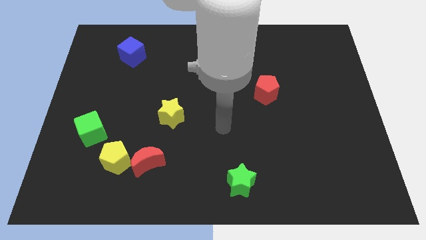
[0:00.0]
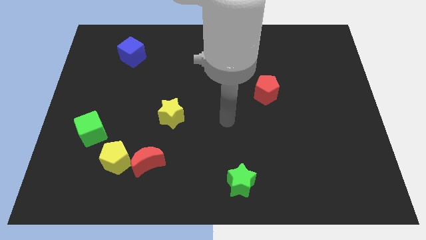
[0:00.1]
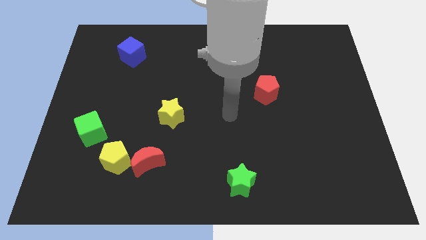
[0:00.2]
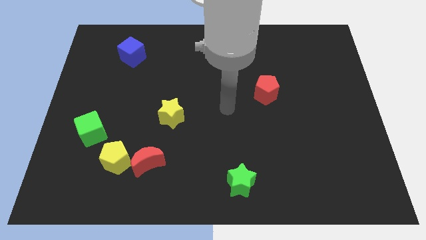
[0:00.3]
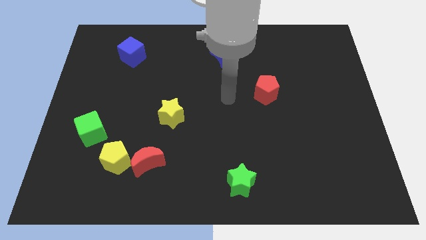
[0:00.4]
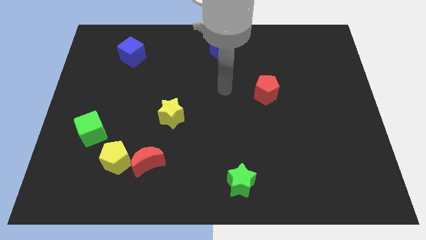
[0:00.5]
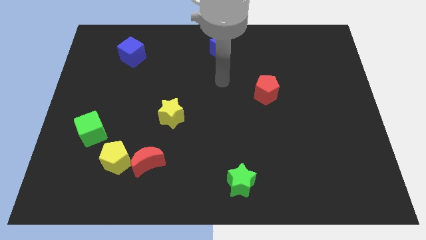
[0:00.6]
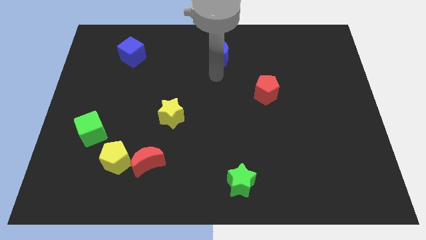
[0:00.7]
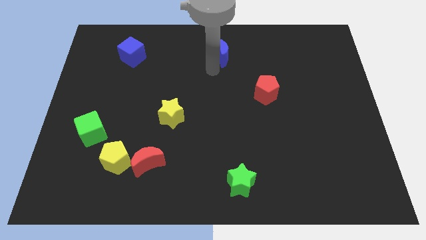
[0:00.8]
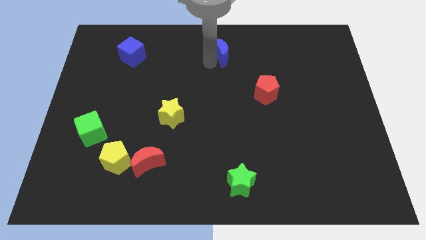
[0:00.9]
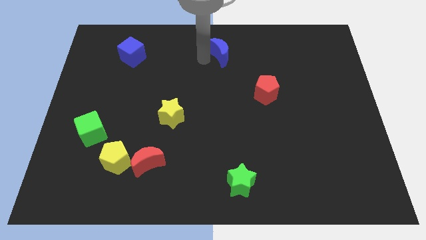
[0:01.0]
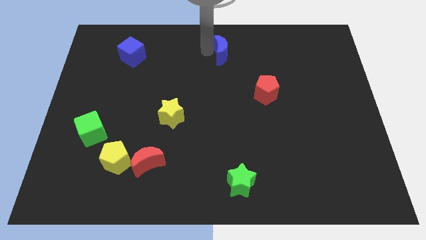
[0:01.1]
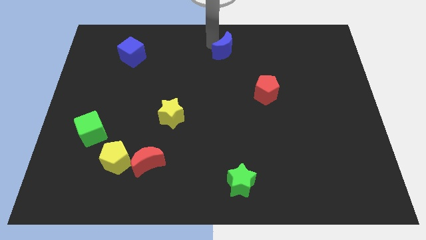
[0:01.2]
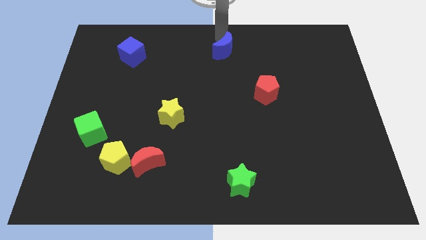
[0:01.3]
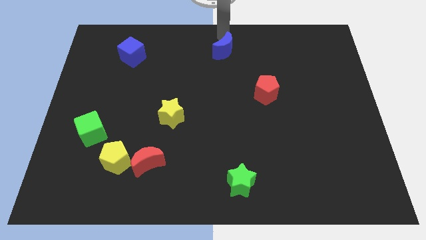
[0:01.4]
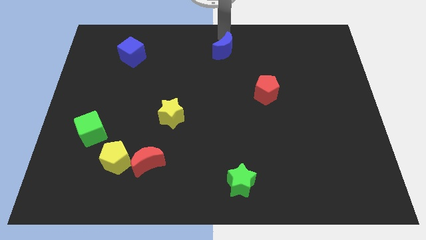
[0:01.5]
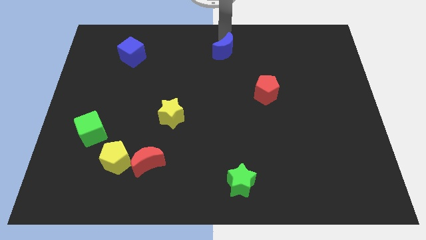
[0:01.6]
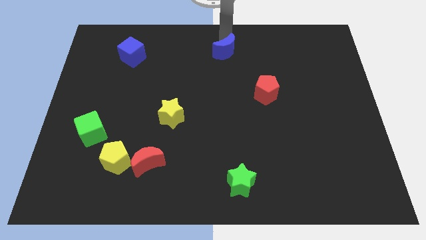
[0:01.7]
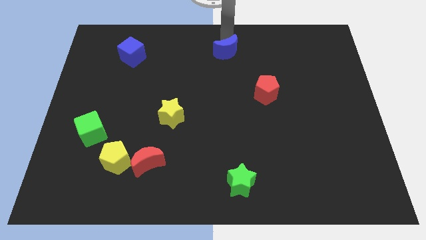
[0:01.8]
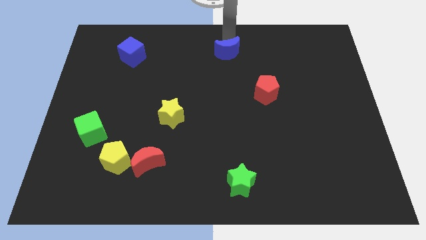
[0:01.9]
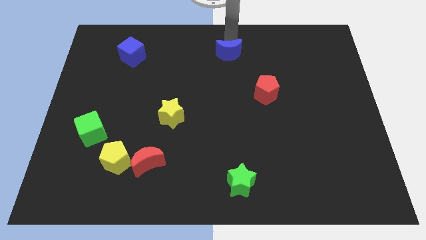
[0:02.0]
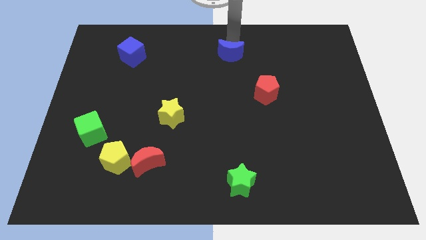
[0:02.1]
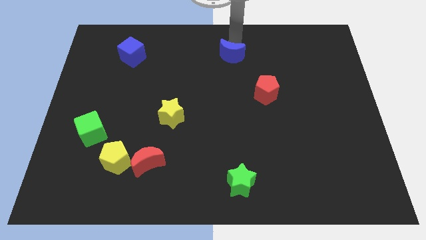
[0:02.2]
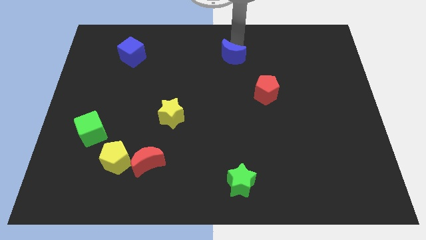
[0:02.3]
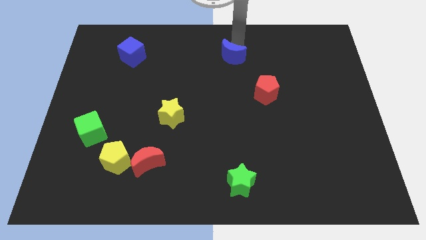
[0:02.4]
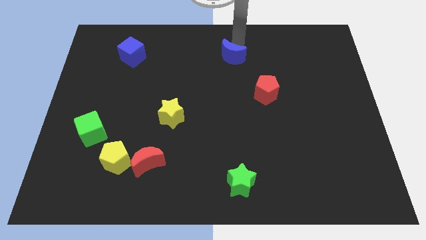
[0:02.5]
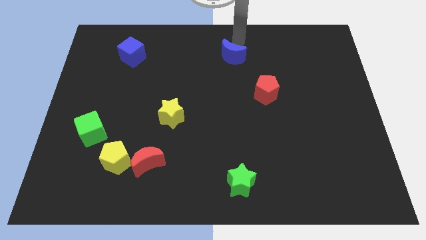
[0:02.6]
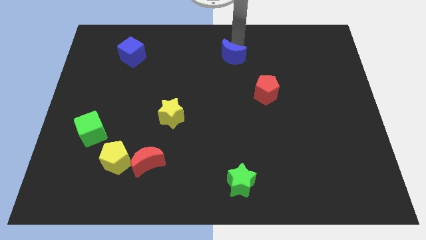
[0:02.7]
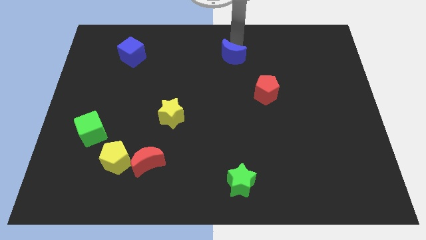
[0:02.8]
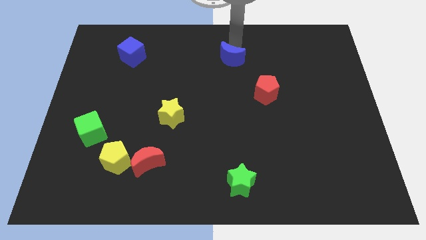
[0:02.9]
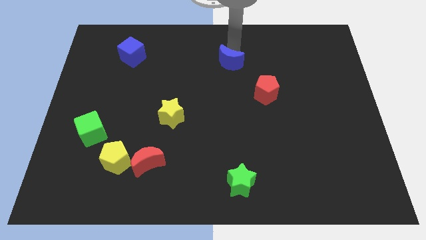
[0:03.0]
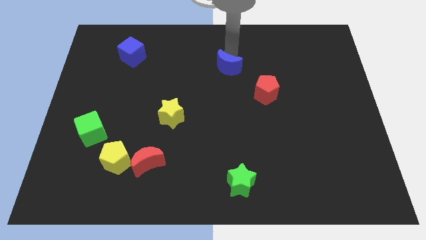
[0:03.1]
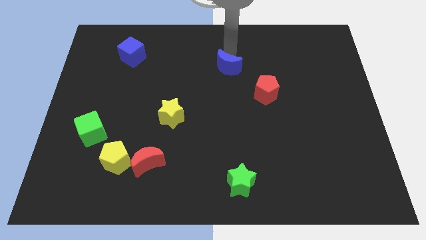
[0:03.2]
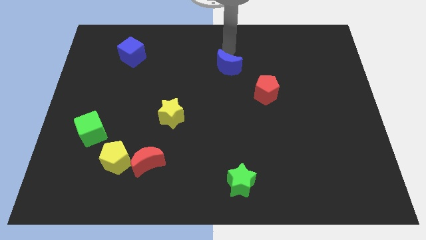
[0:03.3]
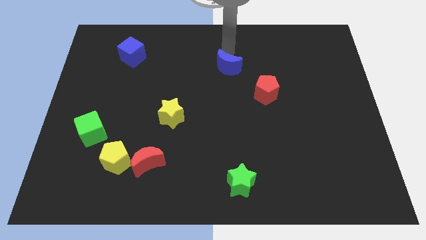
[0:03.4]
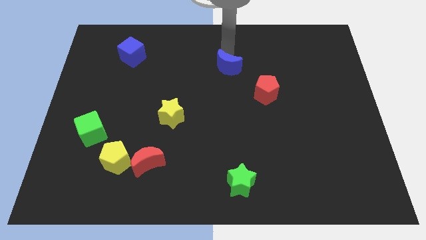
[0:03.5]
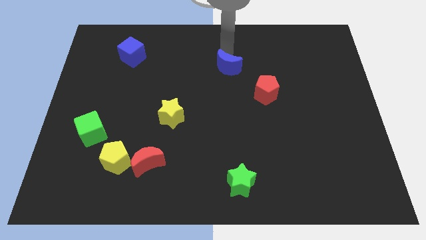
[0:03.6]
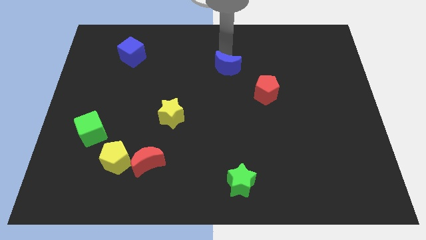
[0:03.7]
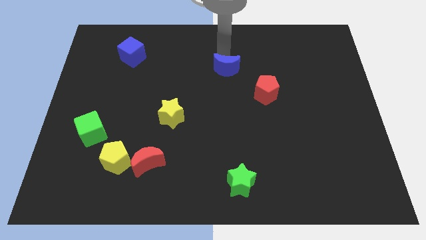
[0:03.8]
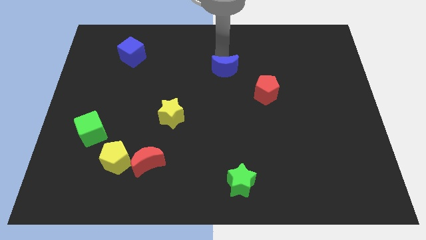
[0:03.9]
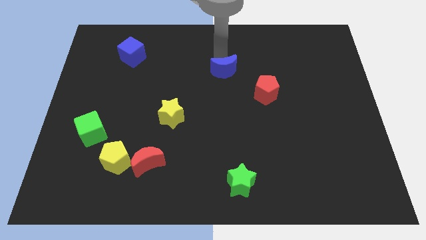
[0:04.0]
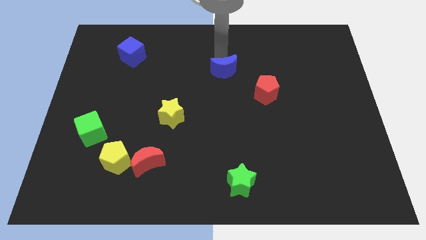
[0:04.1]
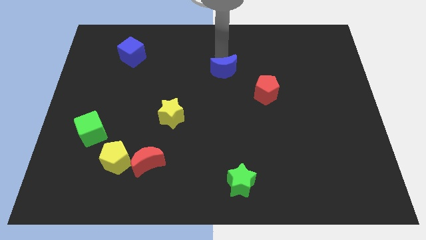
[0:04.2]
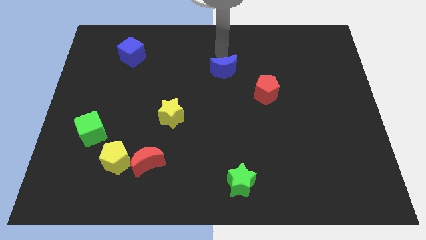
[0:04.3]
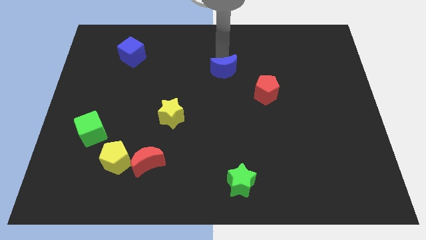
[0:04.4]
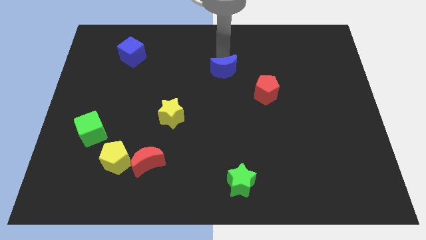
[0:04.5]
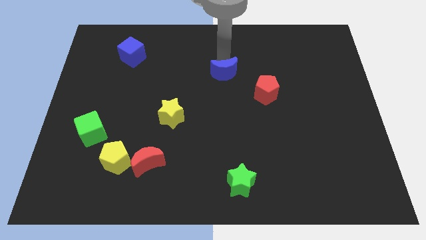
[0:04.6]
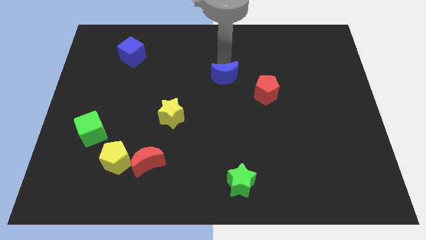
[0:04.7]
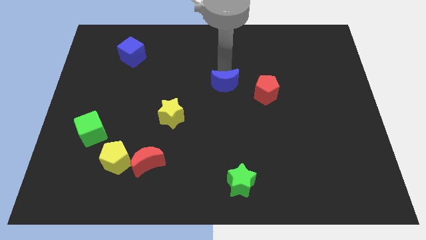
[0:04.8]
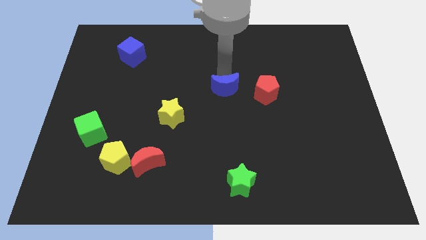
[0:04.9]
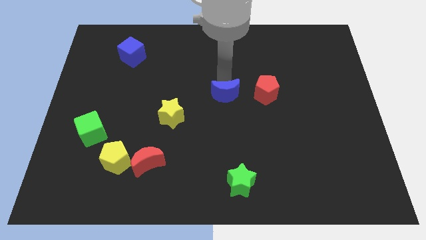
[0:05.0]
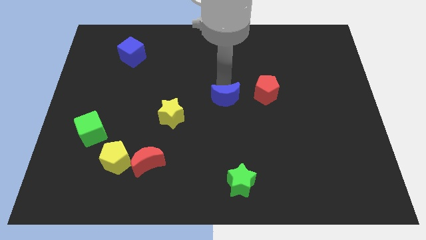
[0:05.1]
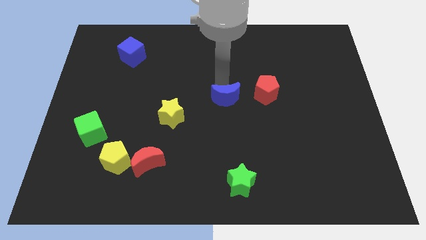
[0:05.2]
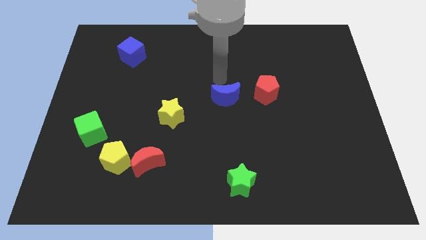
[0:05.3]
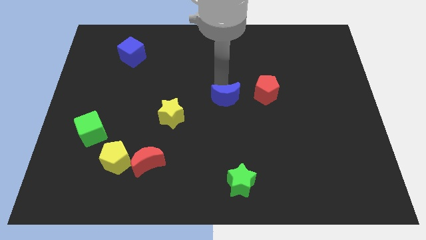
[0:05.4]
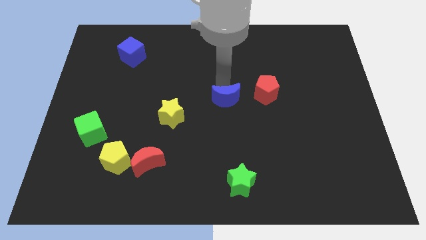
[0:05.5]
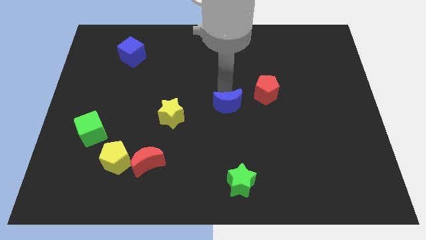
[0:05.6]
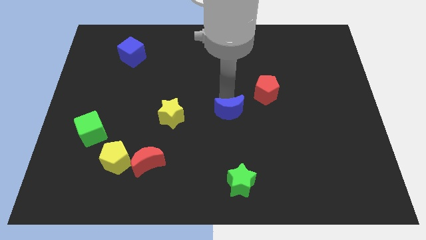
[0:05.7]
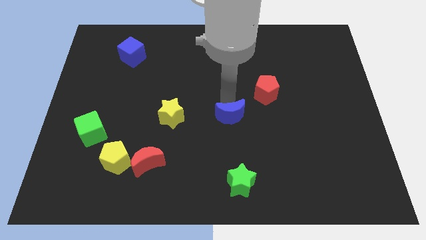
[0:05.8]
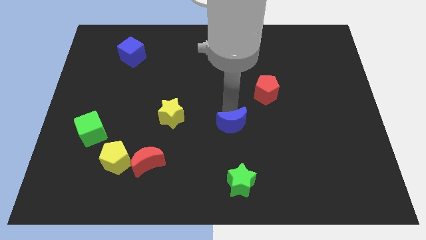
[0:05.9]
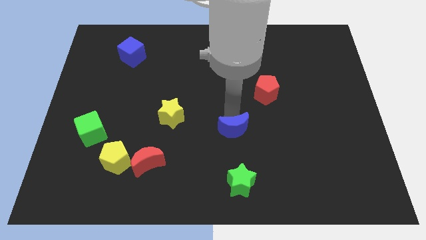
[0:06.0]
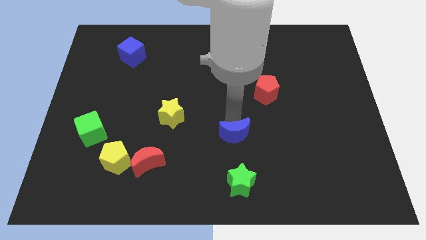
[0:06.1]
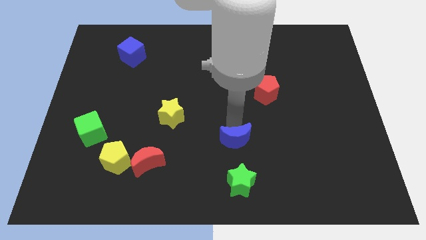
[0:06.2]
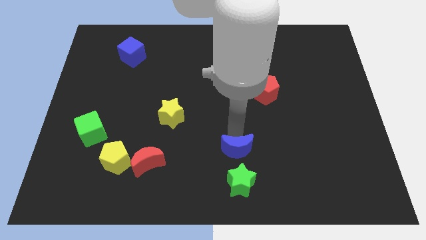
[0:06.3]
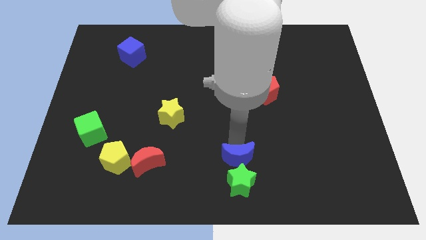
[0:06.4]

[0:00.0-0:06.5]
slide the blue moon close to the green star

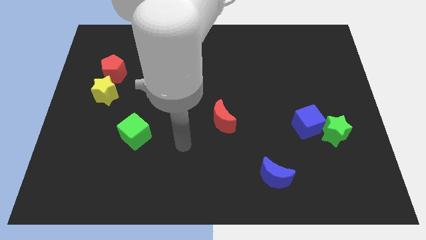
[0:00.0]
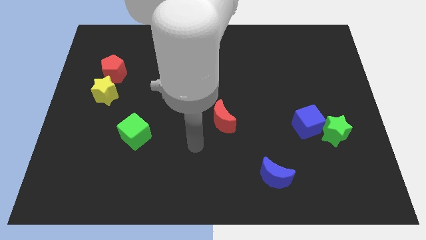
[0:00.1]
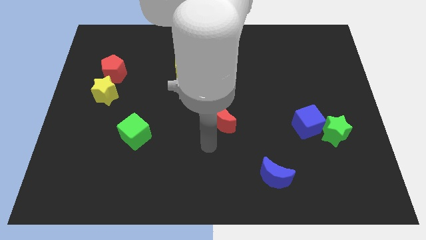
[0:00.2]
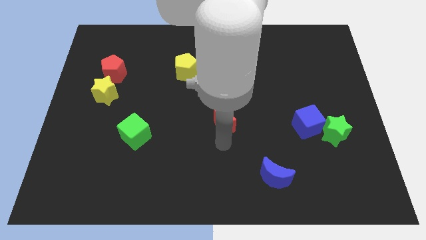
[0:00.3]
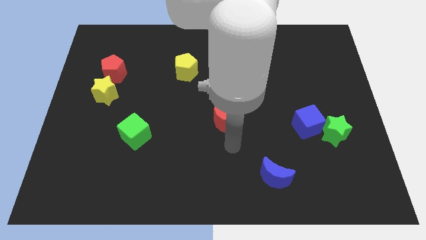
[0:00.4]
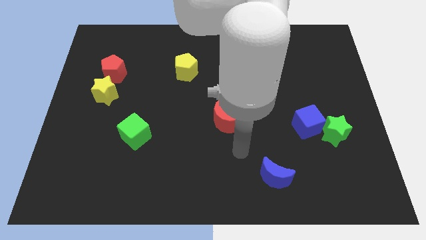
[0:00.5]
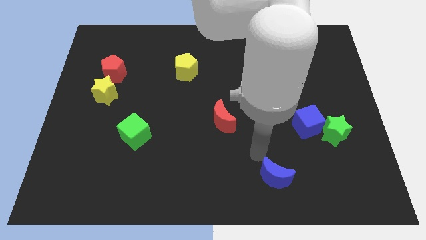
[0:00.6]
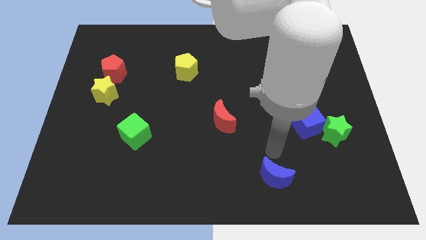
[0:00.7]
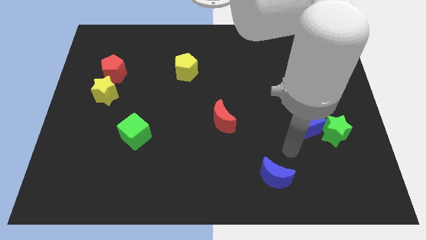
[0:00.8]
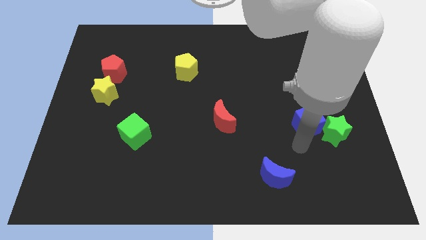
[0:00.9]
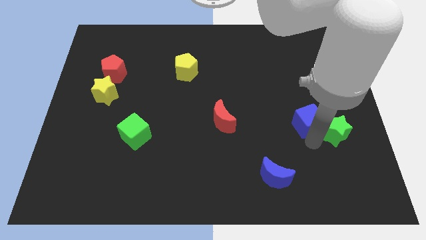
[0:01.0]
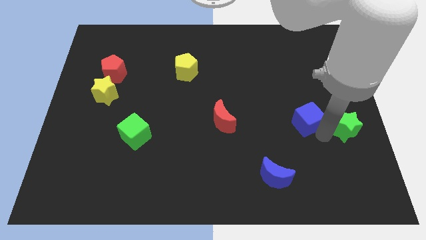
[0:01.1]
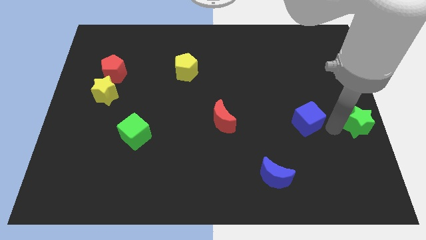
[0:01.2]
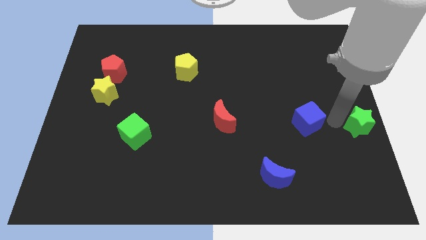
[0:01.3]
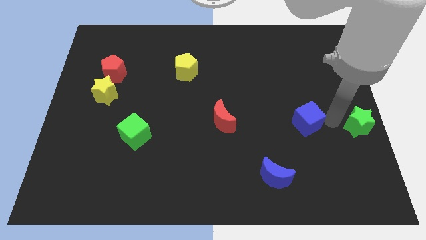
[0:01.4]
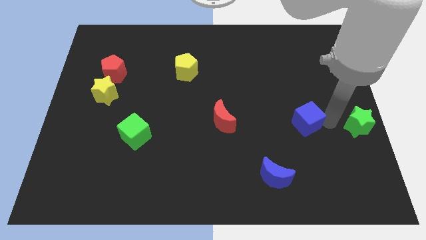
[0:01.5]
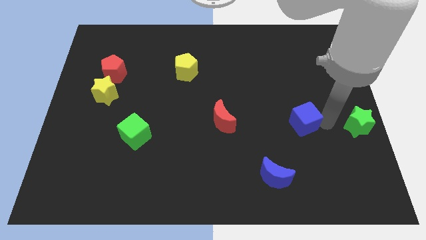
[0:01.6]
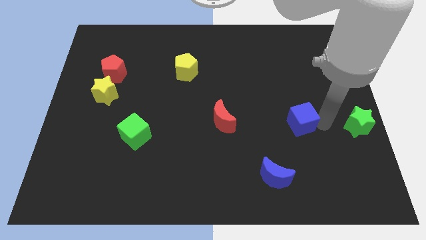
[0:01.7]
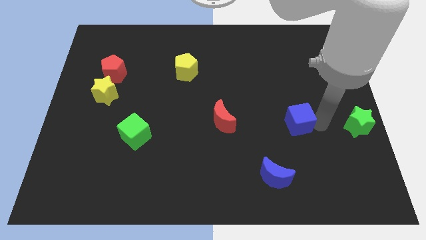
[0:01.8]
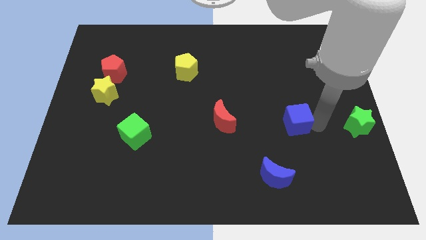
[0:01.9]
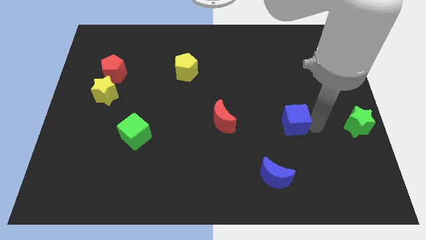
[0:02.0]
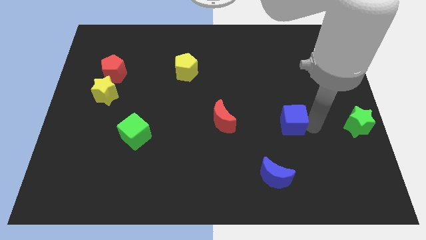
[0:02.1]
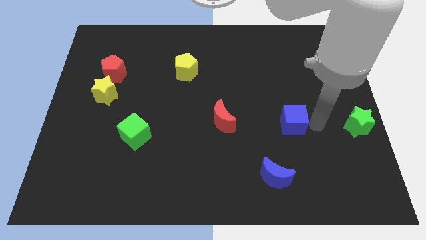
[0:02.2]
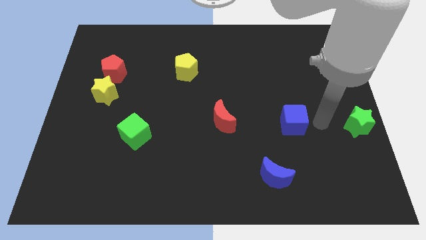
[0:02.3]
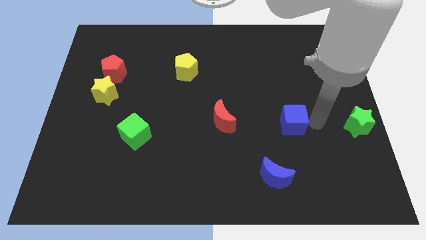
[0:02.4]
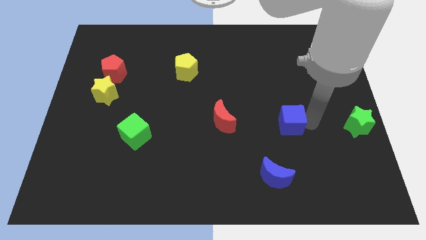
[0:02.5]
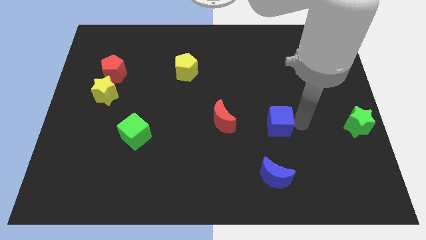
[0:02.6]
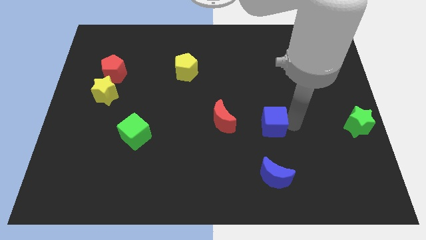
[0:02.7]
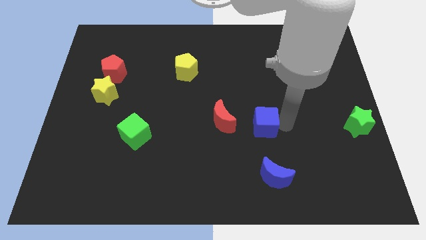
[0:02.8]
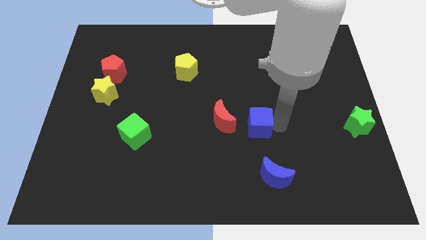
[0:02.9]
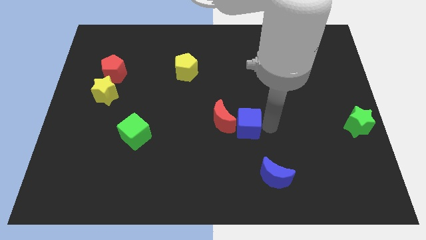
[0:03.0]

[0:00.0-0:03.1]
put the blue cube close to the red moon
